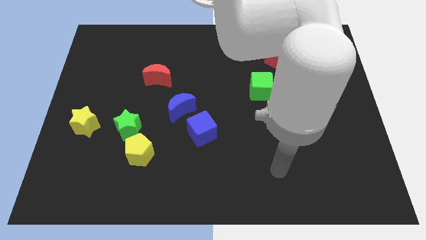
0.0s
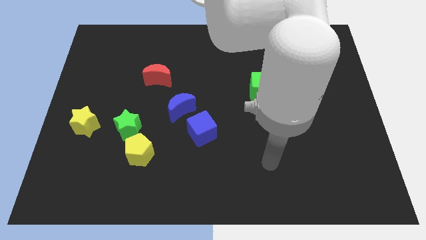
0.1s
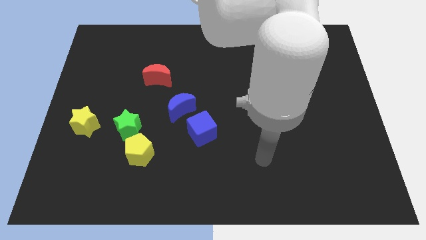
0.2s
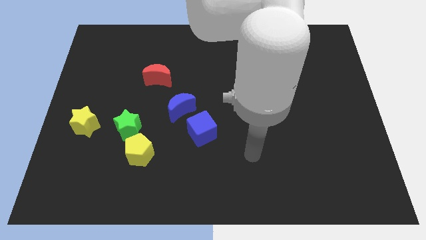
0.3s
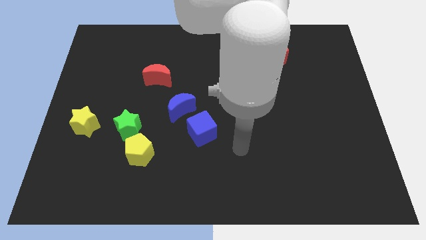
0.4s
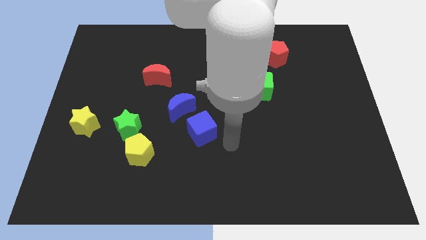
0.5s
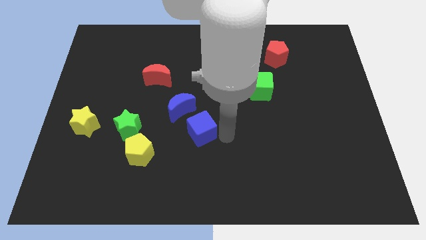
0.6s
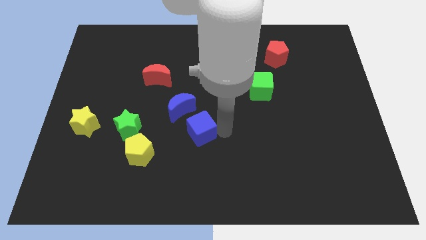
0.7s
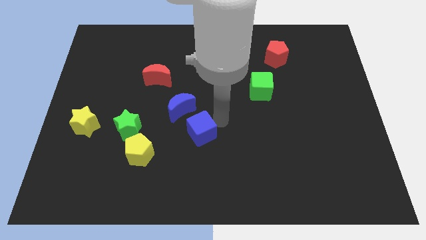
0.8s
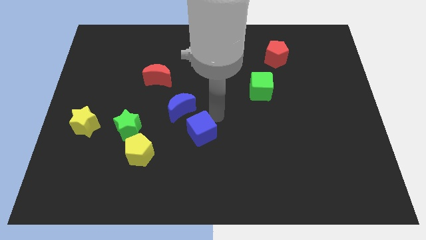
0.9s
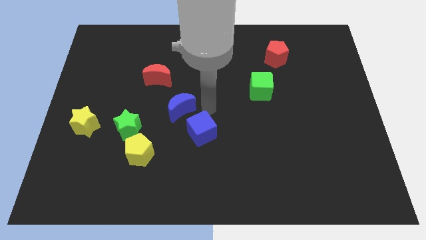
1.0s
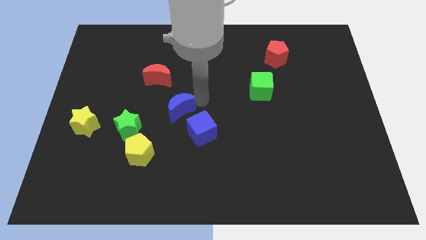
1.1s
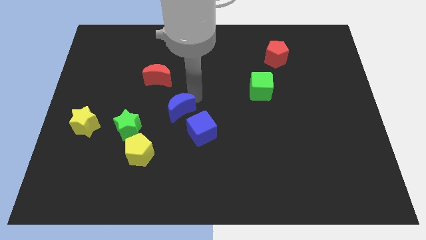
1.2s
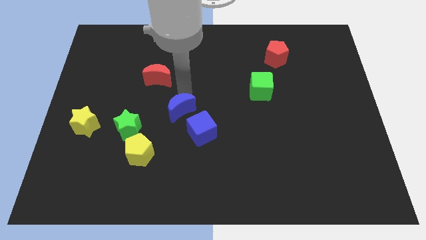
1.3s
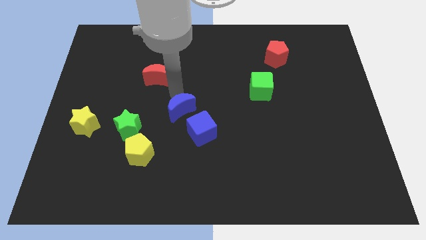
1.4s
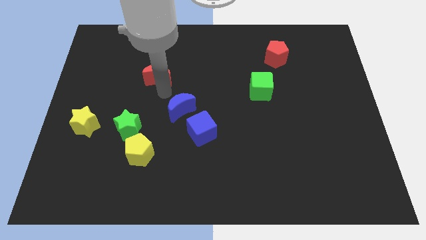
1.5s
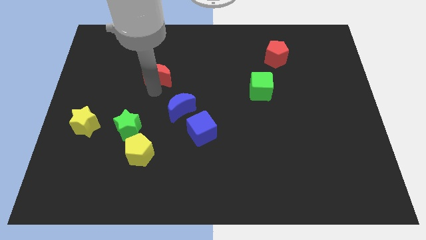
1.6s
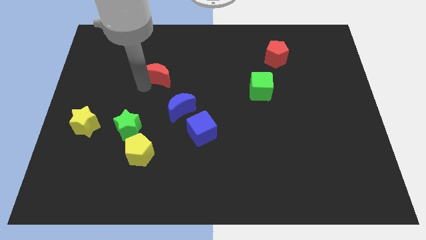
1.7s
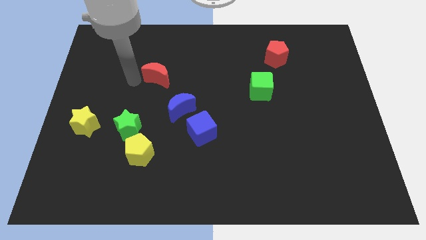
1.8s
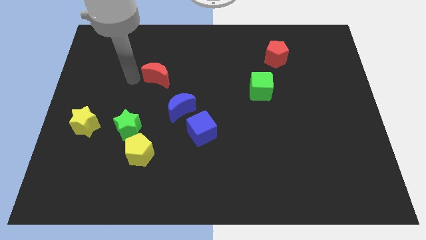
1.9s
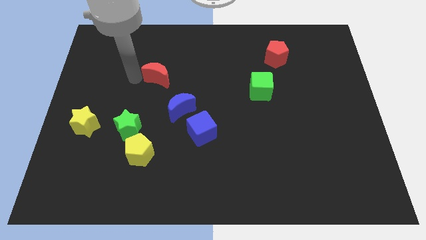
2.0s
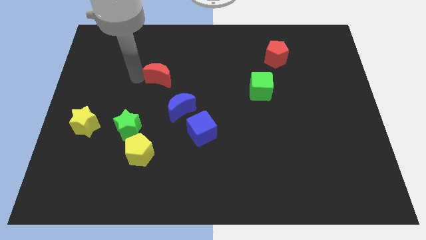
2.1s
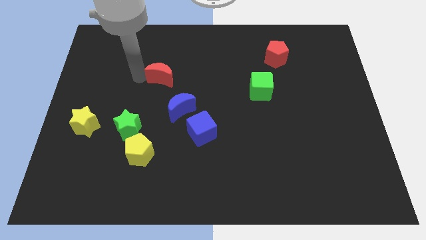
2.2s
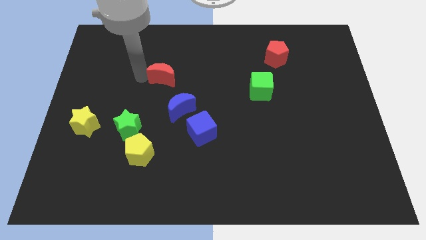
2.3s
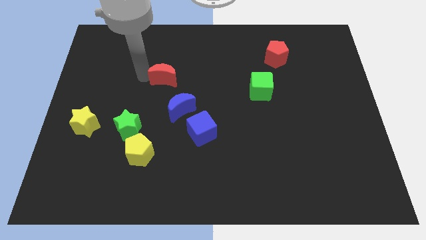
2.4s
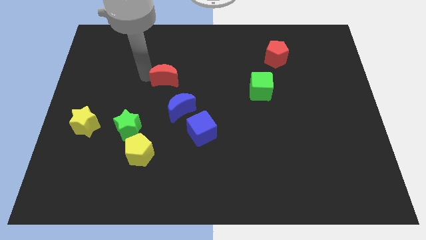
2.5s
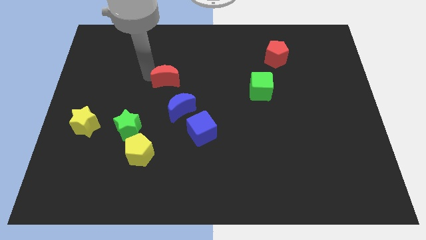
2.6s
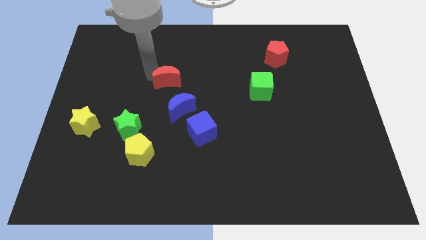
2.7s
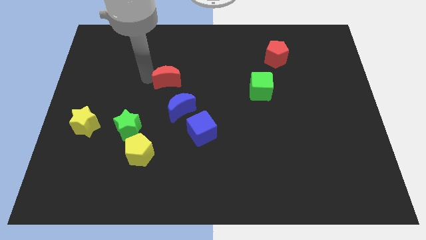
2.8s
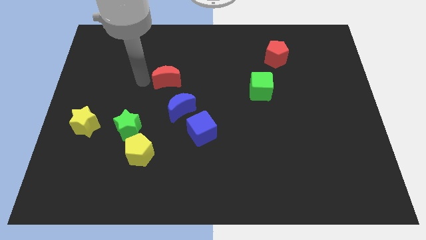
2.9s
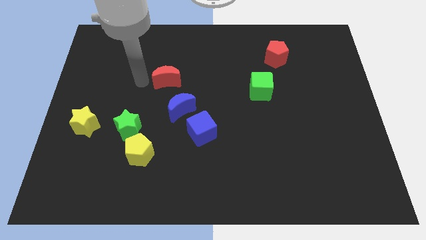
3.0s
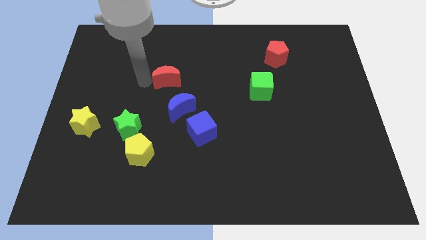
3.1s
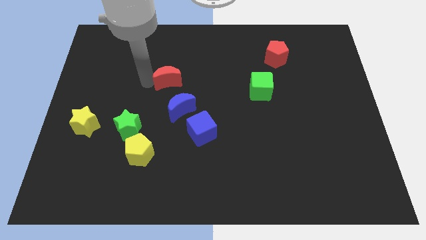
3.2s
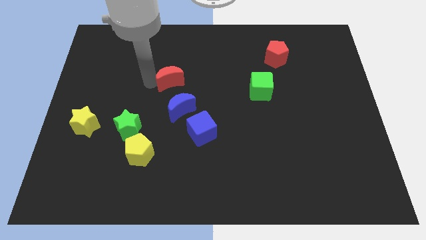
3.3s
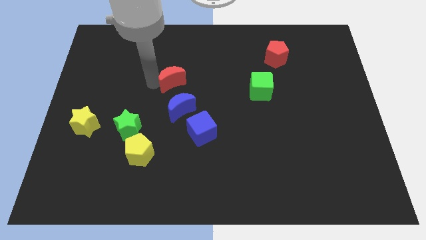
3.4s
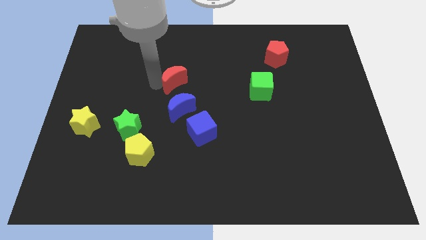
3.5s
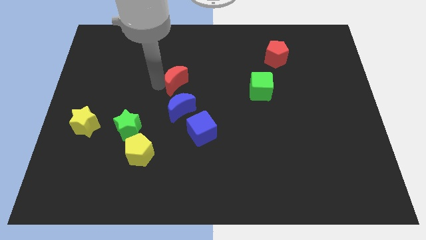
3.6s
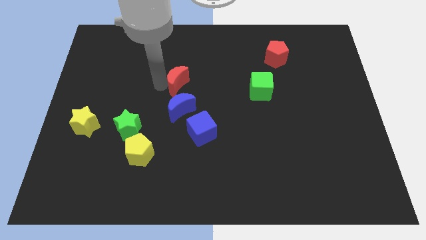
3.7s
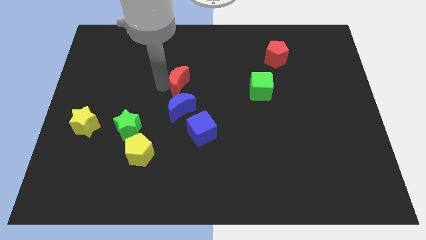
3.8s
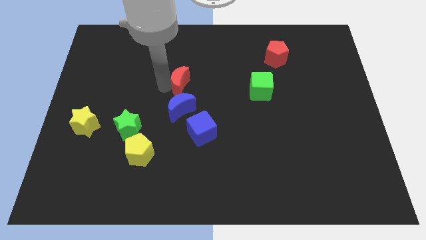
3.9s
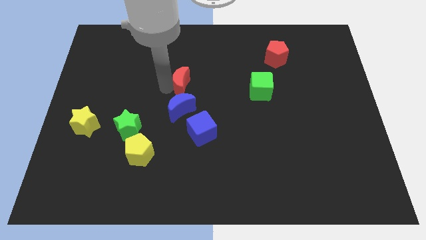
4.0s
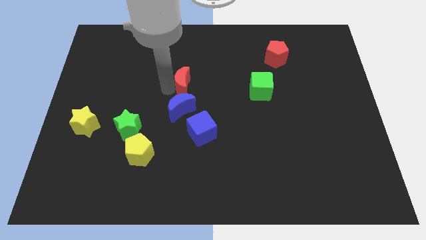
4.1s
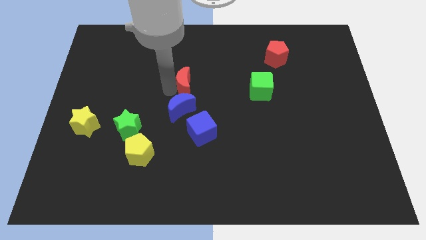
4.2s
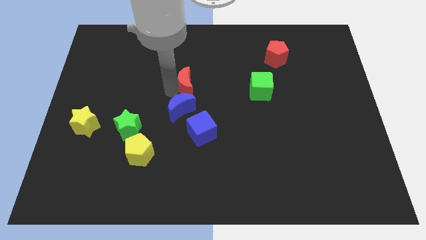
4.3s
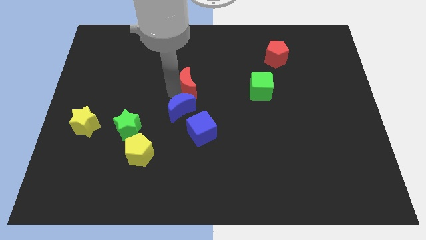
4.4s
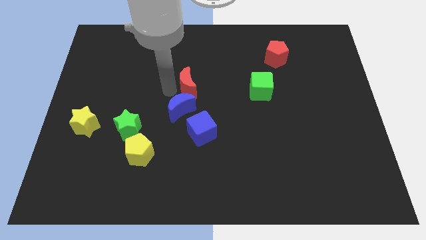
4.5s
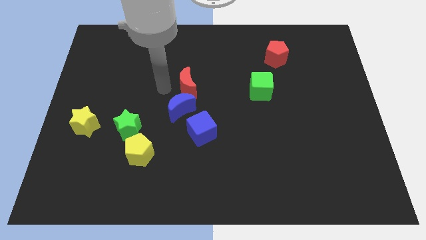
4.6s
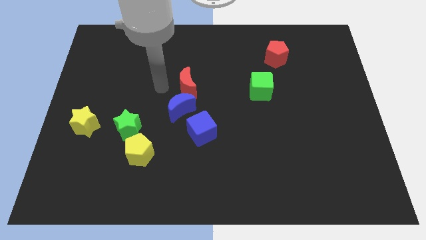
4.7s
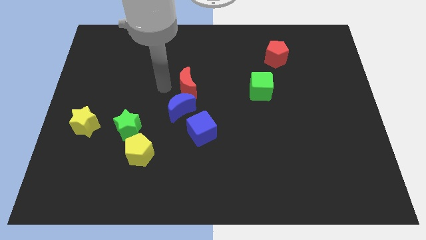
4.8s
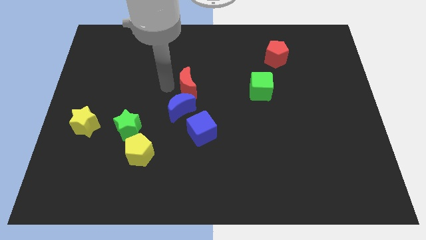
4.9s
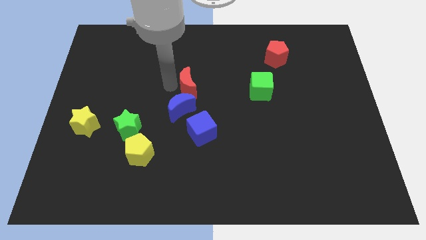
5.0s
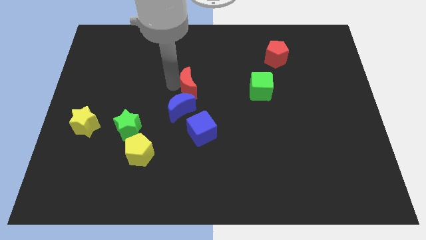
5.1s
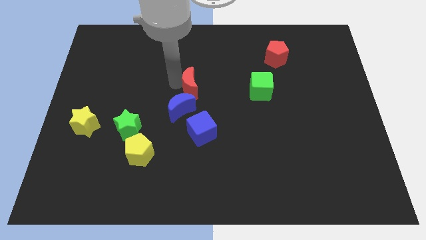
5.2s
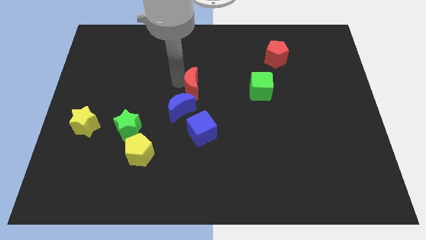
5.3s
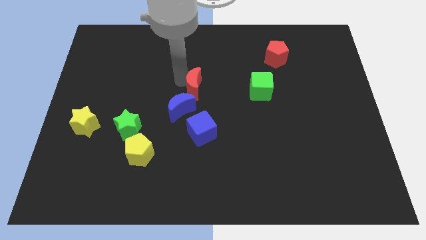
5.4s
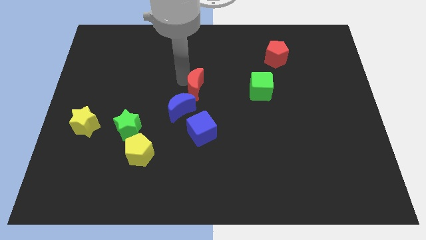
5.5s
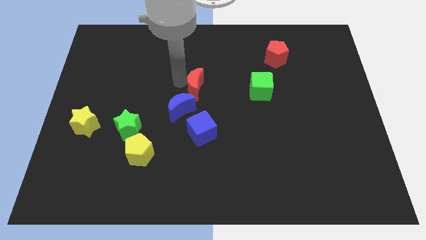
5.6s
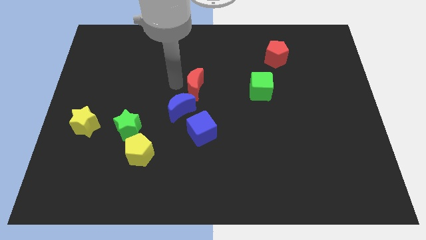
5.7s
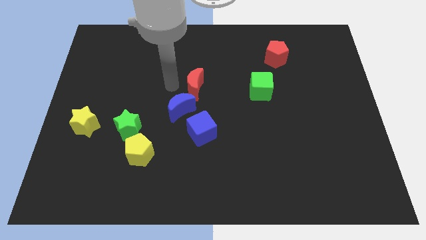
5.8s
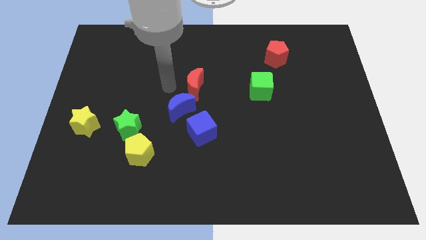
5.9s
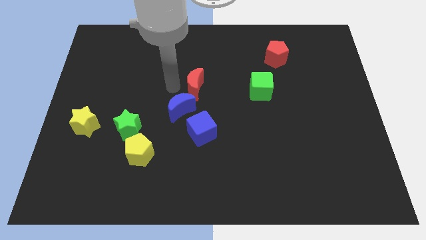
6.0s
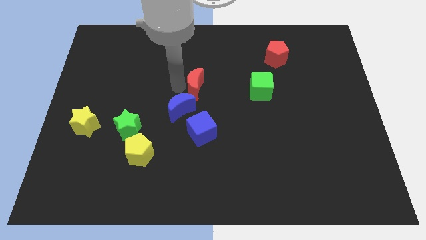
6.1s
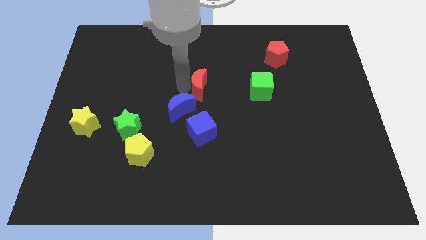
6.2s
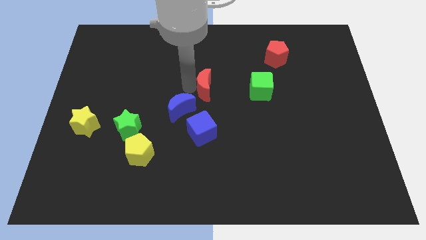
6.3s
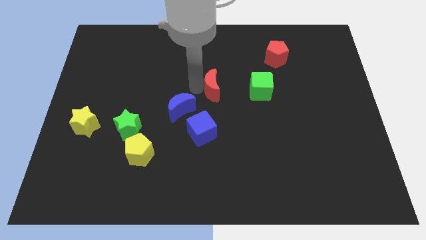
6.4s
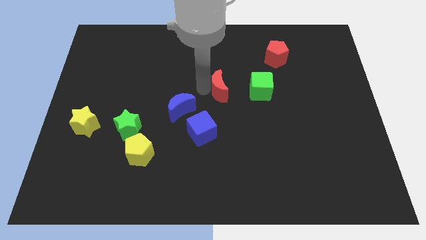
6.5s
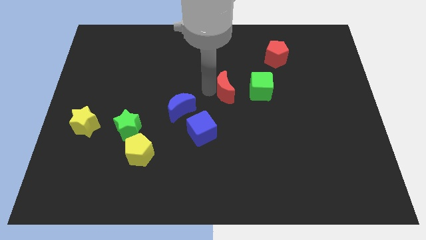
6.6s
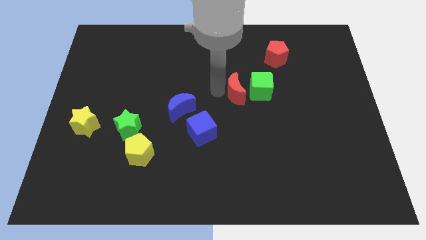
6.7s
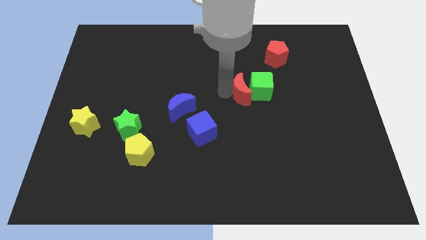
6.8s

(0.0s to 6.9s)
put the red moon close to the green cube

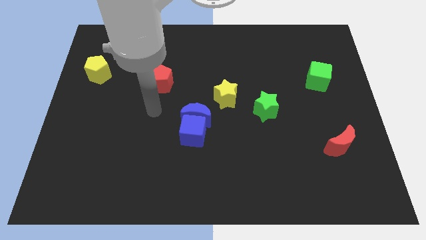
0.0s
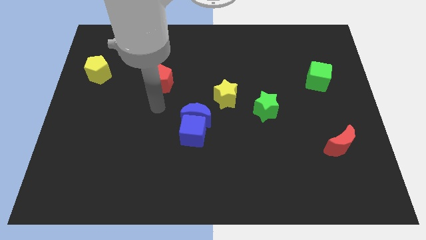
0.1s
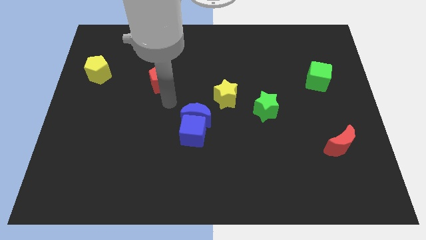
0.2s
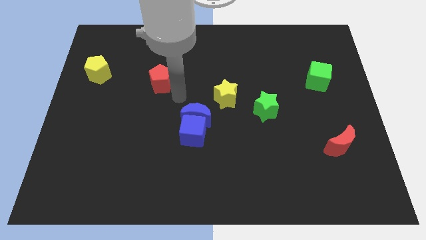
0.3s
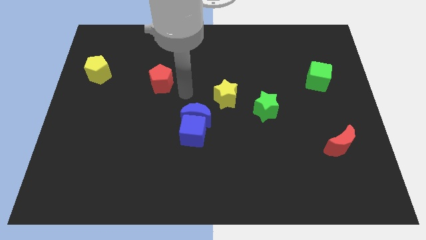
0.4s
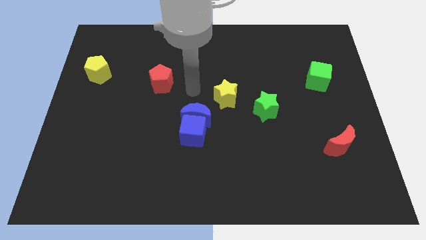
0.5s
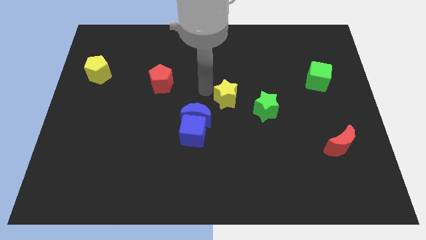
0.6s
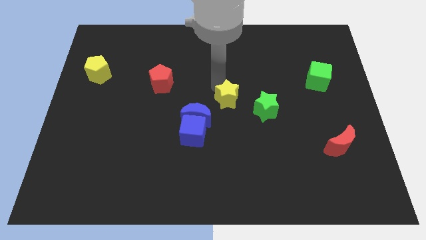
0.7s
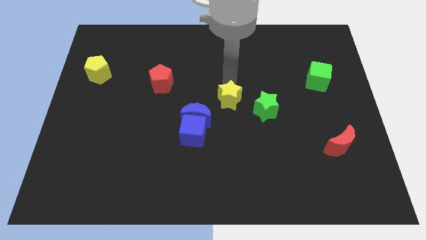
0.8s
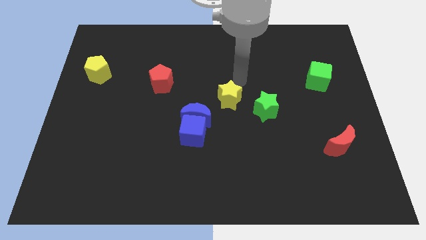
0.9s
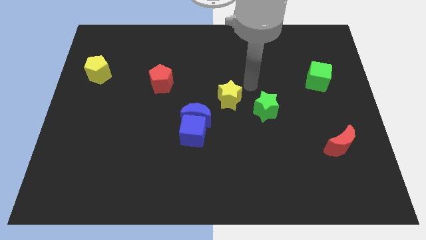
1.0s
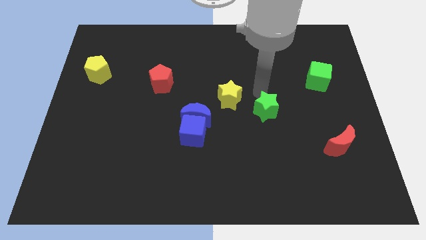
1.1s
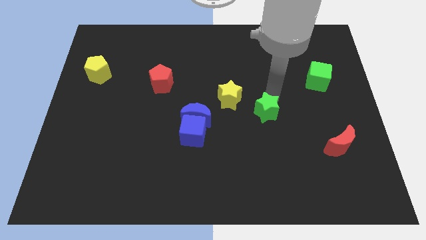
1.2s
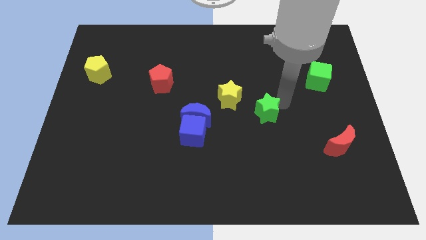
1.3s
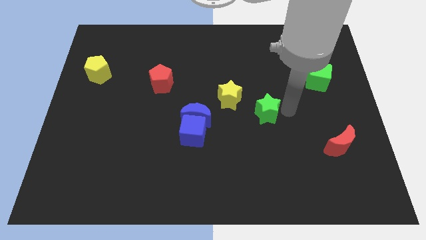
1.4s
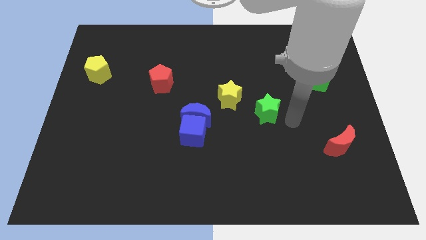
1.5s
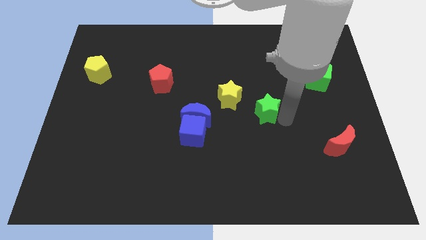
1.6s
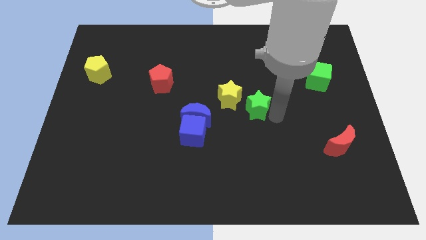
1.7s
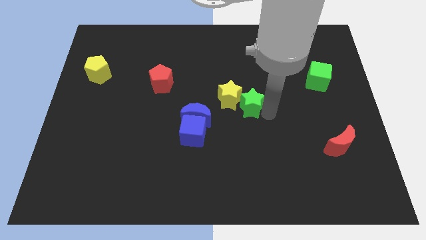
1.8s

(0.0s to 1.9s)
push the green star towards the yellow star
